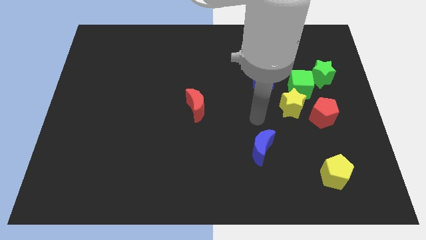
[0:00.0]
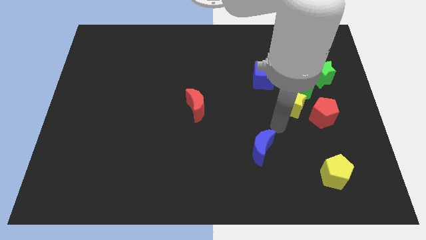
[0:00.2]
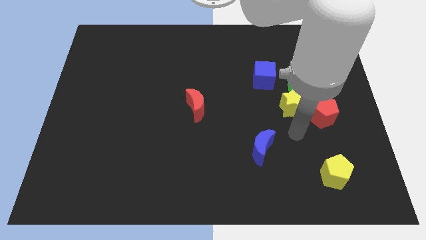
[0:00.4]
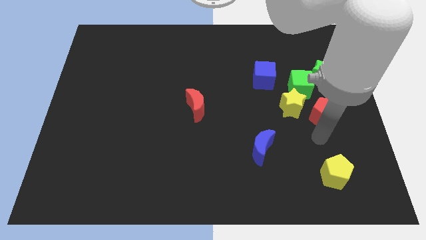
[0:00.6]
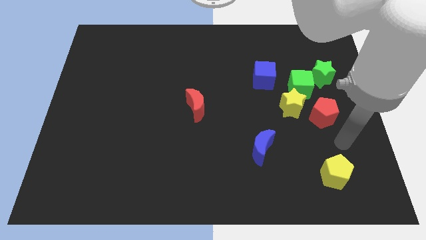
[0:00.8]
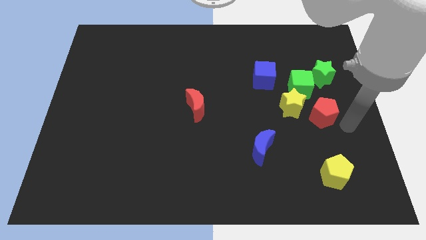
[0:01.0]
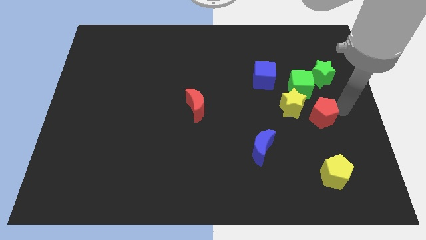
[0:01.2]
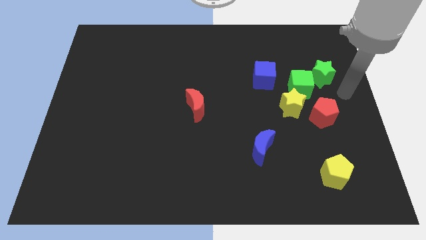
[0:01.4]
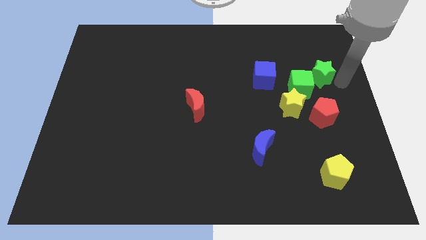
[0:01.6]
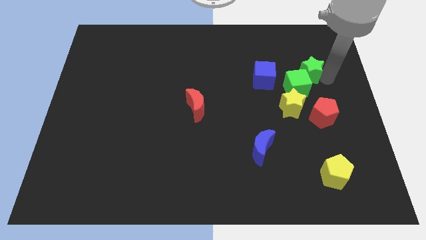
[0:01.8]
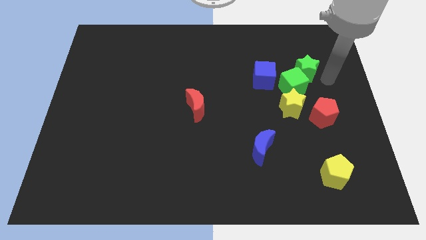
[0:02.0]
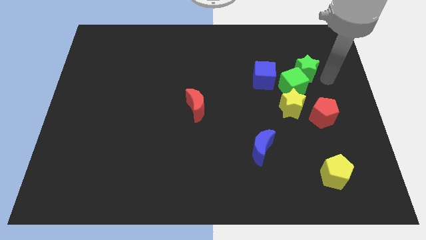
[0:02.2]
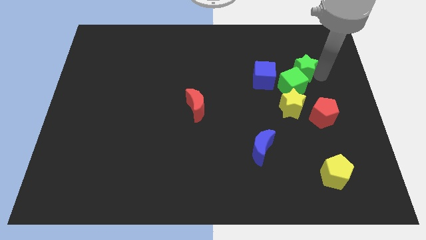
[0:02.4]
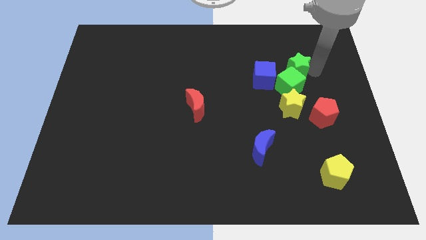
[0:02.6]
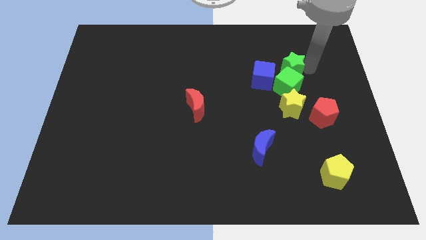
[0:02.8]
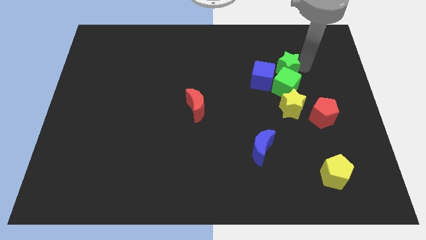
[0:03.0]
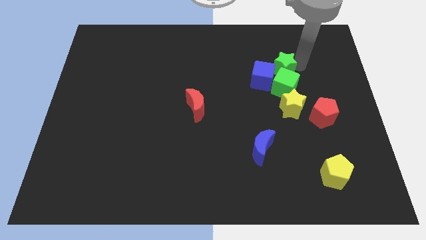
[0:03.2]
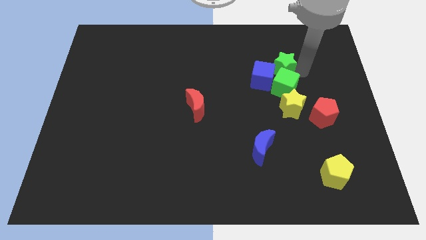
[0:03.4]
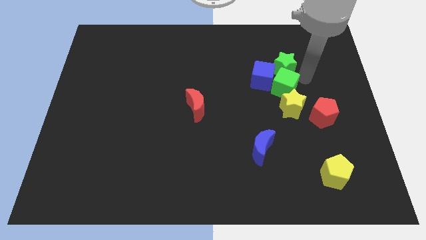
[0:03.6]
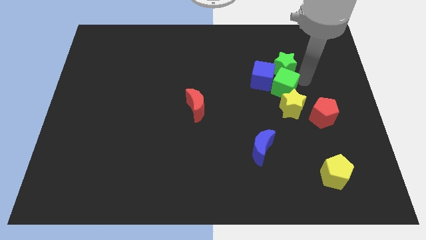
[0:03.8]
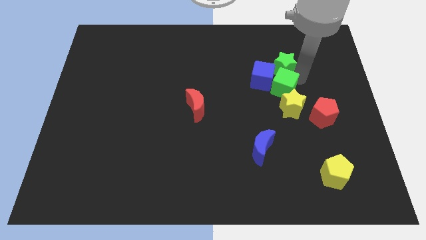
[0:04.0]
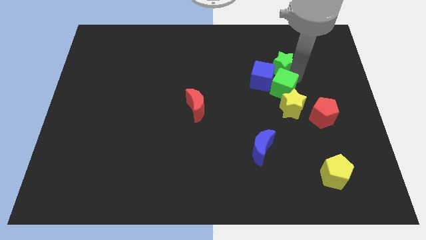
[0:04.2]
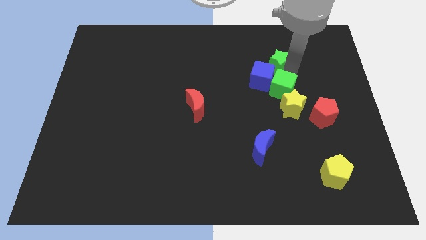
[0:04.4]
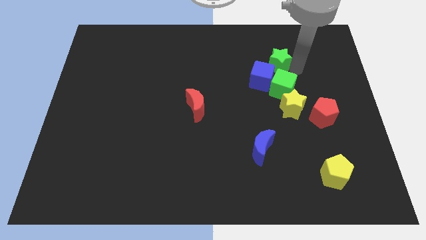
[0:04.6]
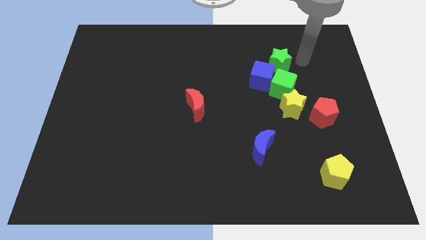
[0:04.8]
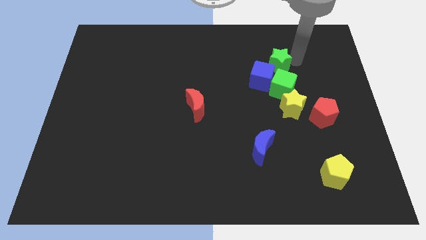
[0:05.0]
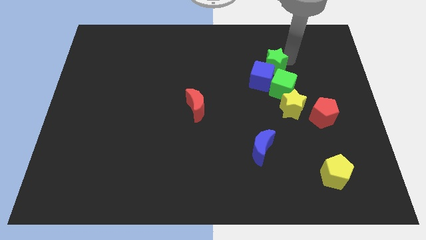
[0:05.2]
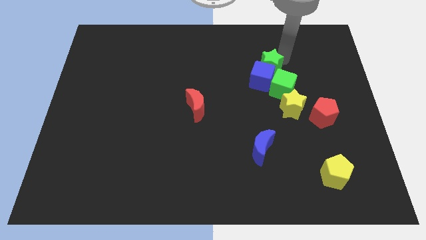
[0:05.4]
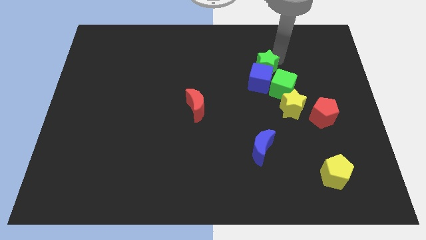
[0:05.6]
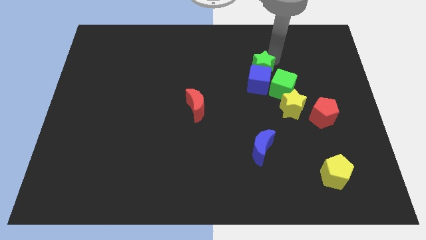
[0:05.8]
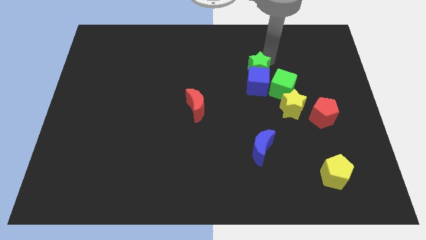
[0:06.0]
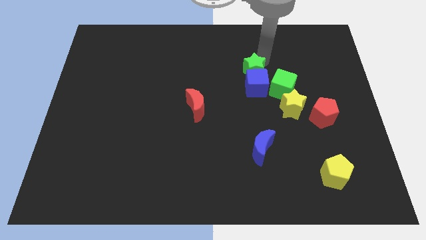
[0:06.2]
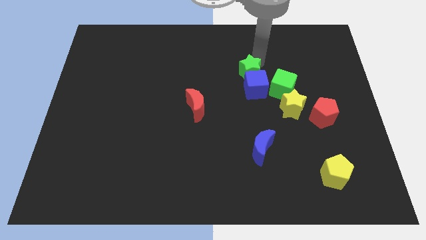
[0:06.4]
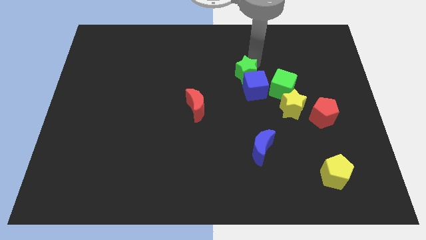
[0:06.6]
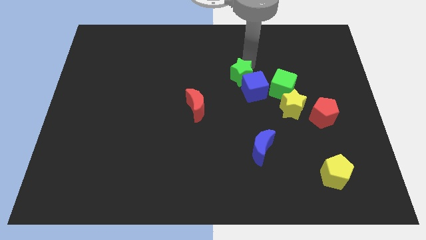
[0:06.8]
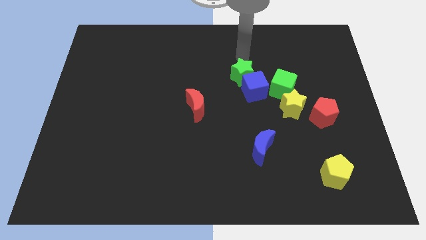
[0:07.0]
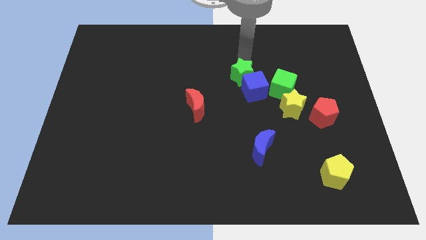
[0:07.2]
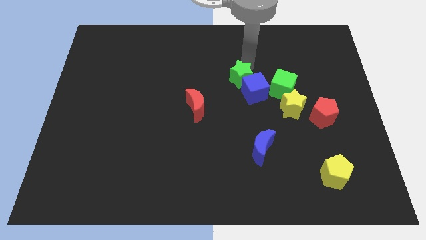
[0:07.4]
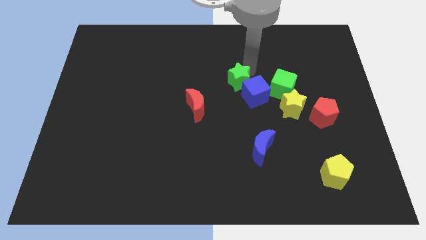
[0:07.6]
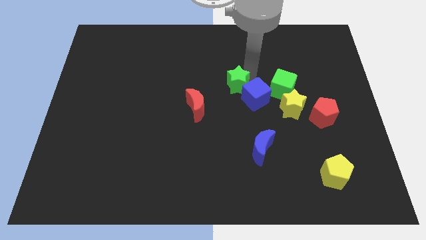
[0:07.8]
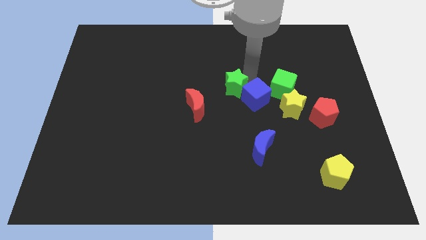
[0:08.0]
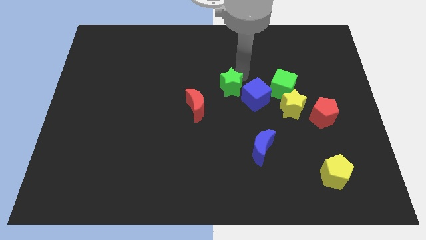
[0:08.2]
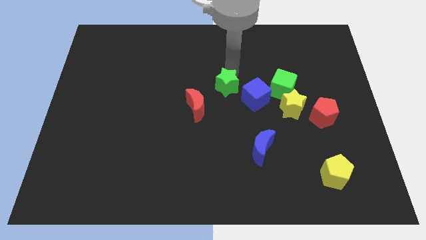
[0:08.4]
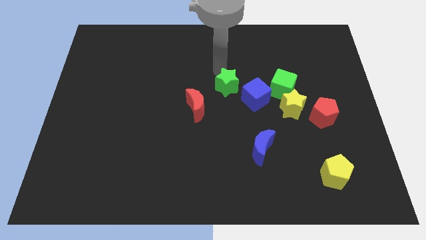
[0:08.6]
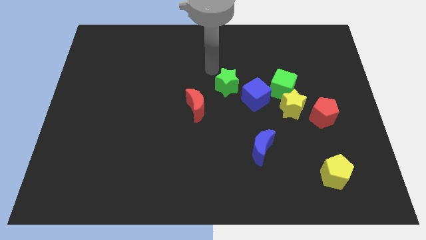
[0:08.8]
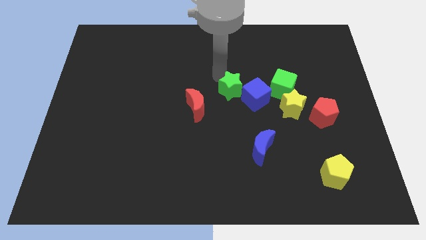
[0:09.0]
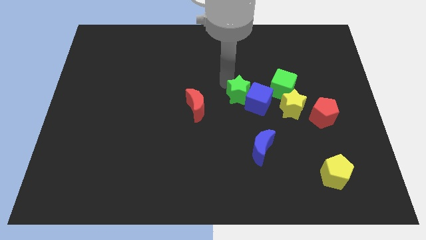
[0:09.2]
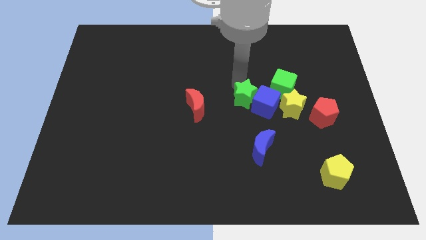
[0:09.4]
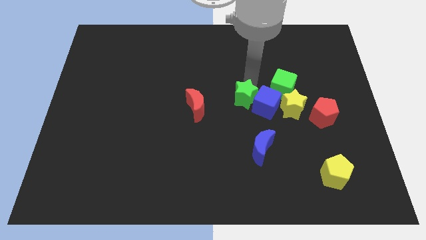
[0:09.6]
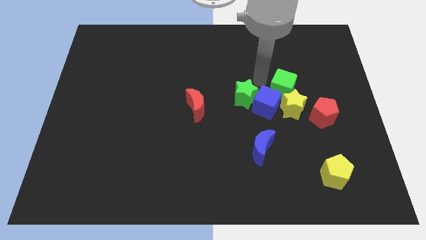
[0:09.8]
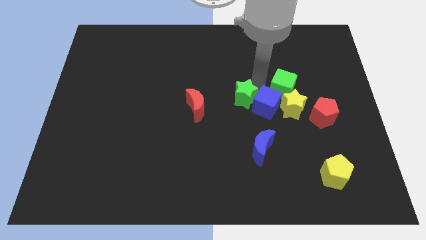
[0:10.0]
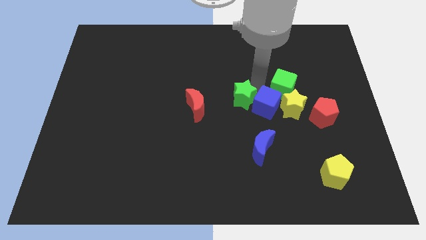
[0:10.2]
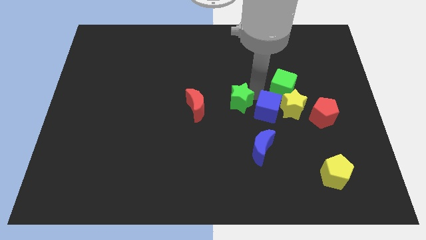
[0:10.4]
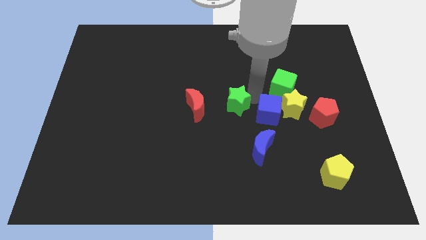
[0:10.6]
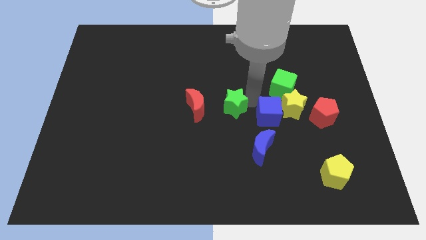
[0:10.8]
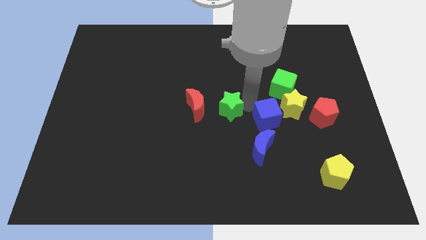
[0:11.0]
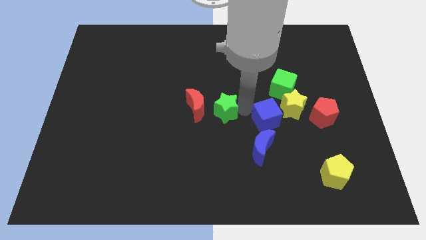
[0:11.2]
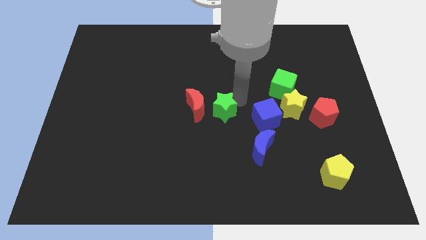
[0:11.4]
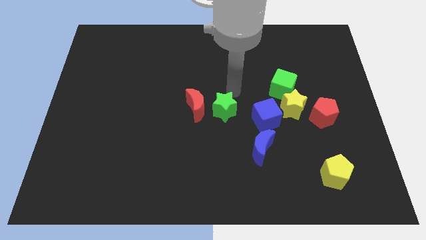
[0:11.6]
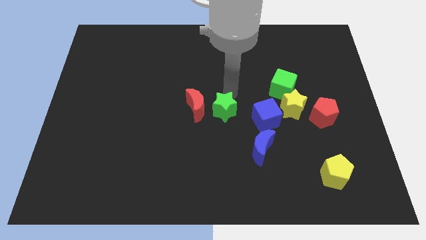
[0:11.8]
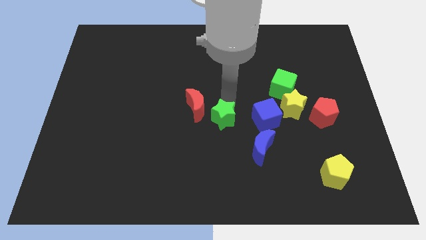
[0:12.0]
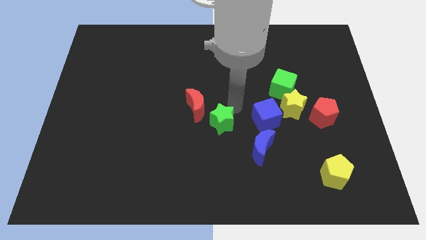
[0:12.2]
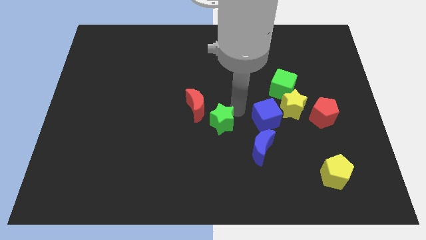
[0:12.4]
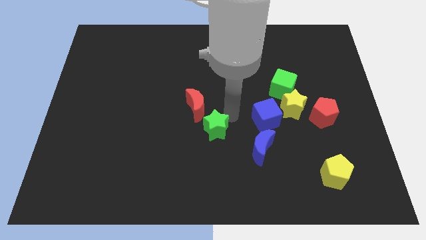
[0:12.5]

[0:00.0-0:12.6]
push the green star to the bottom side of the red moon
